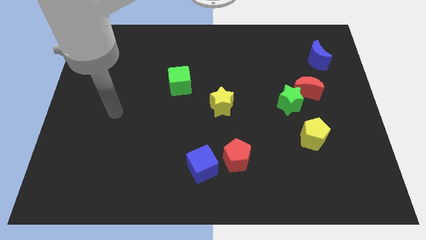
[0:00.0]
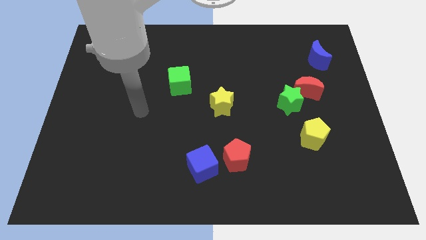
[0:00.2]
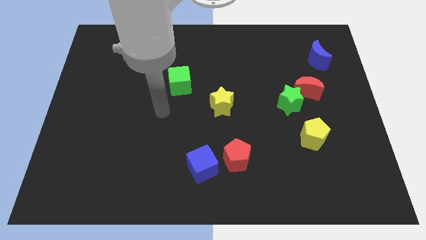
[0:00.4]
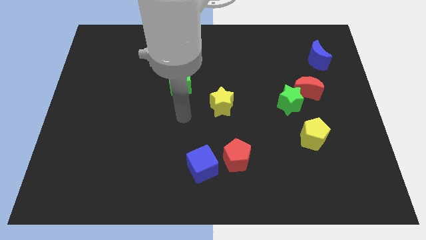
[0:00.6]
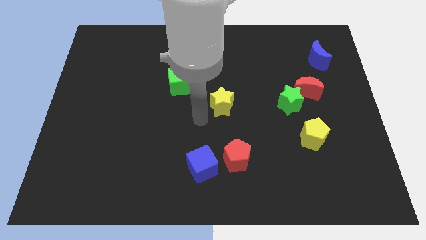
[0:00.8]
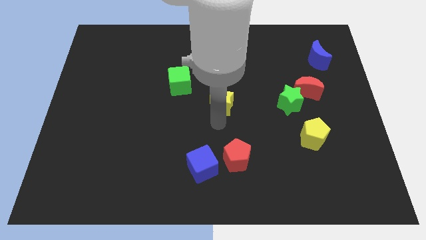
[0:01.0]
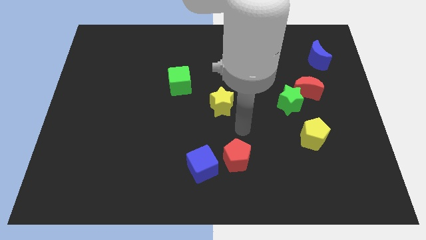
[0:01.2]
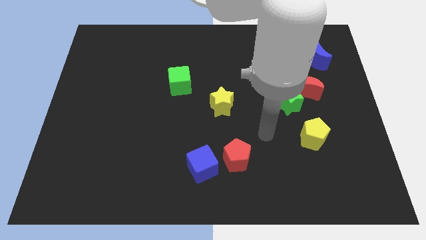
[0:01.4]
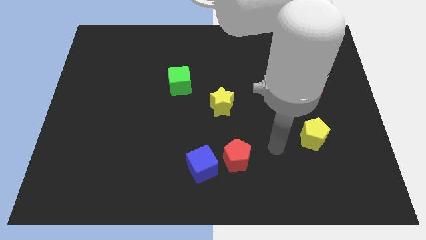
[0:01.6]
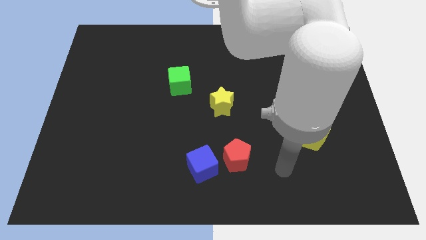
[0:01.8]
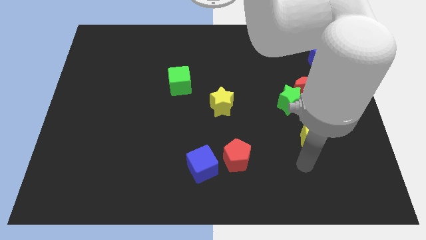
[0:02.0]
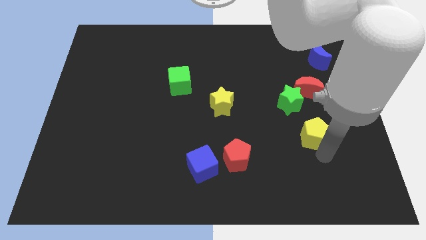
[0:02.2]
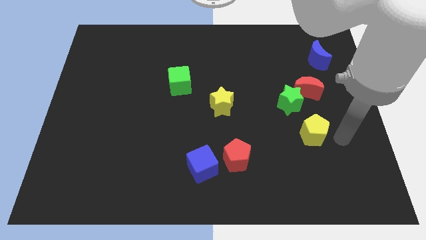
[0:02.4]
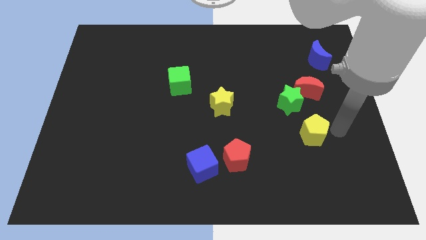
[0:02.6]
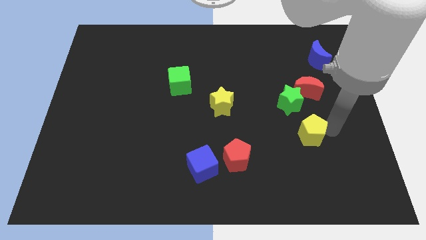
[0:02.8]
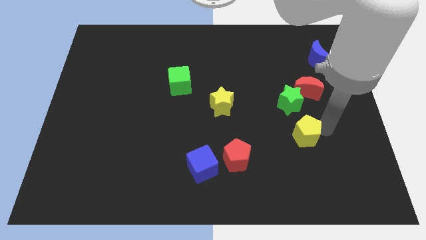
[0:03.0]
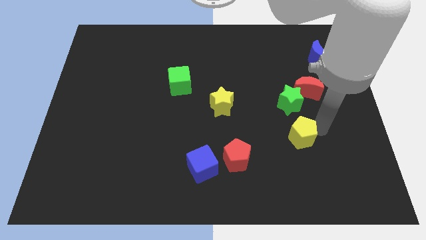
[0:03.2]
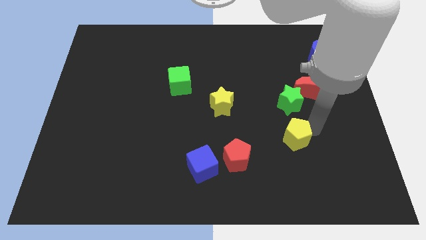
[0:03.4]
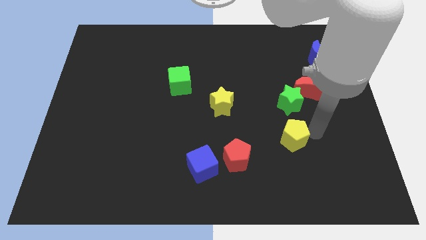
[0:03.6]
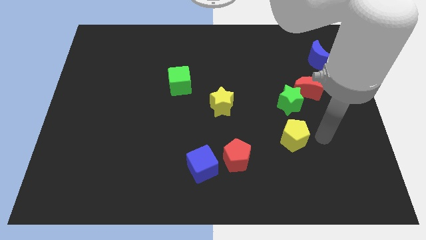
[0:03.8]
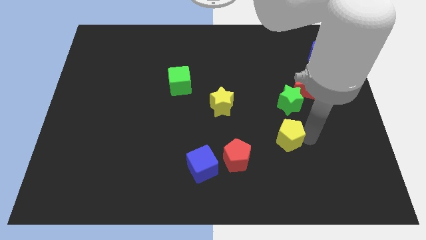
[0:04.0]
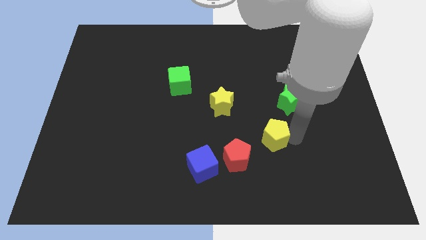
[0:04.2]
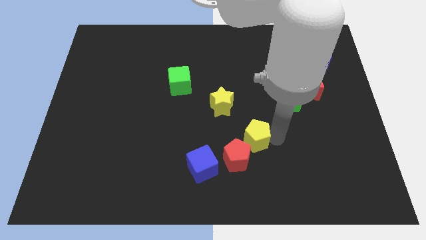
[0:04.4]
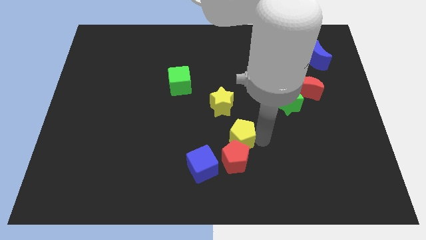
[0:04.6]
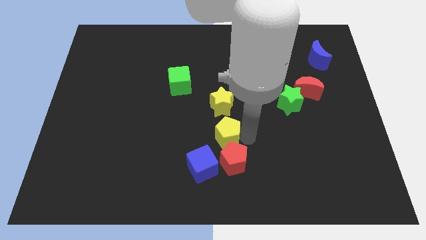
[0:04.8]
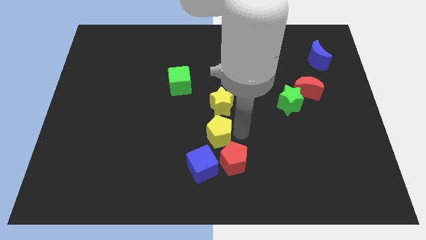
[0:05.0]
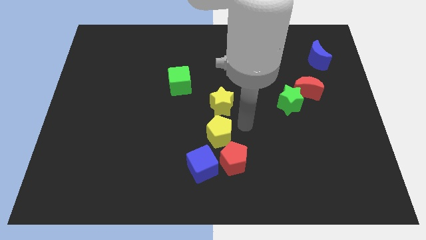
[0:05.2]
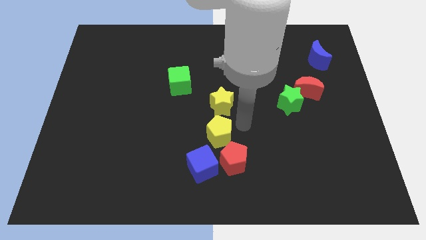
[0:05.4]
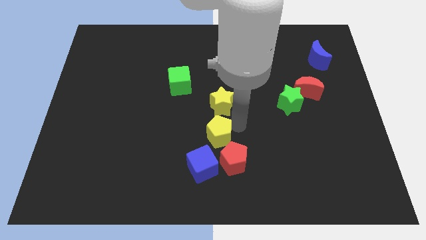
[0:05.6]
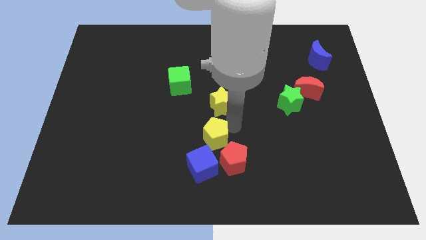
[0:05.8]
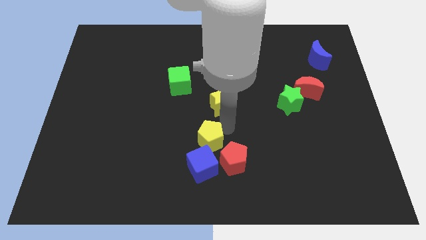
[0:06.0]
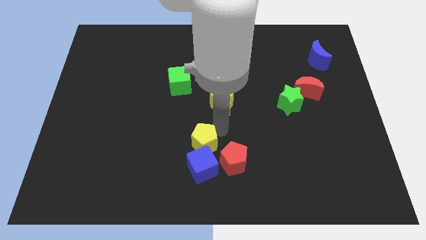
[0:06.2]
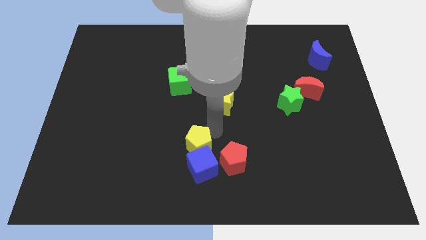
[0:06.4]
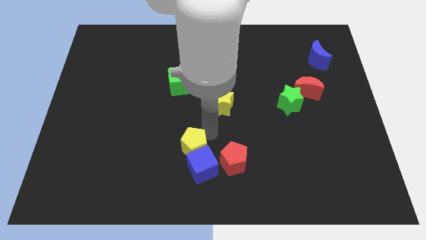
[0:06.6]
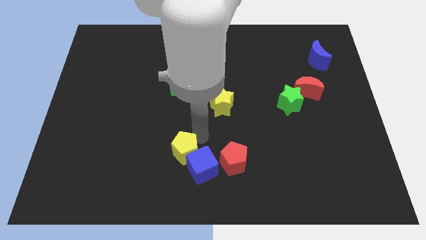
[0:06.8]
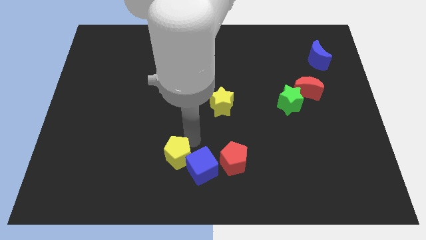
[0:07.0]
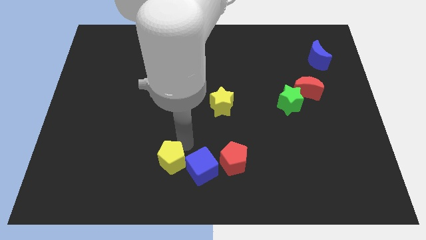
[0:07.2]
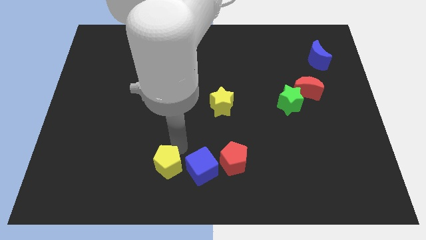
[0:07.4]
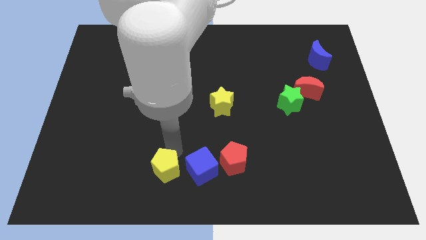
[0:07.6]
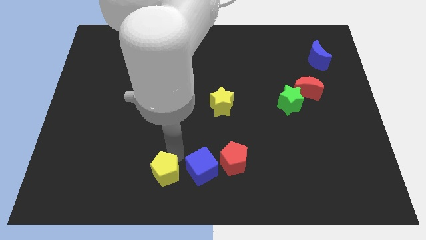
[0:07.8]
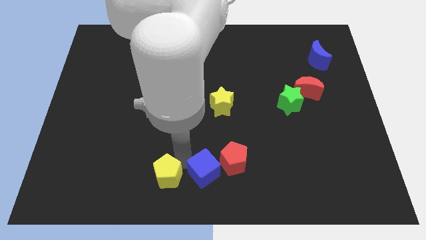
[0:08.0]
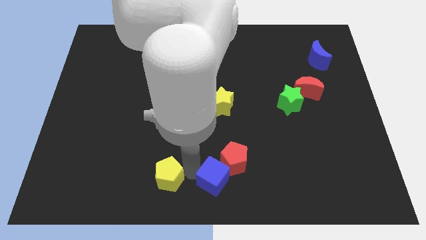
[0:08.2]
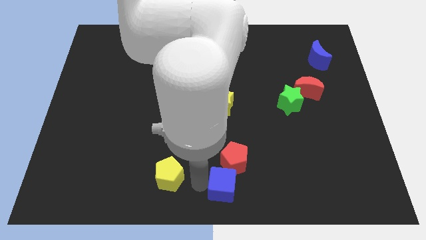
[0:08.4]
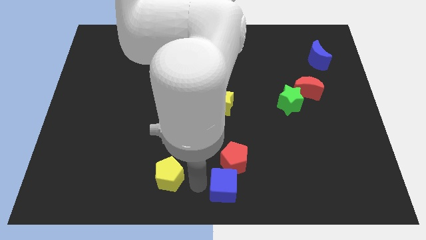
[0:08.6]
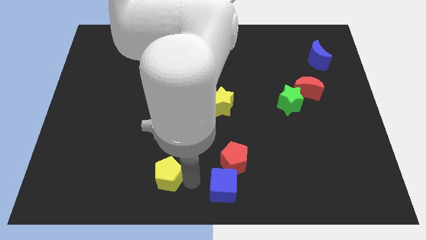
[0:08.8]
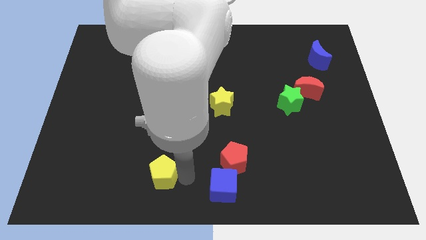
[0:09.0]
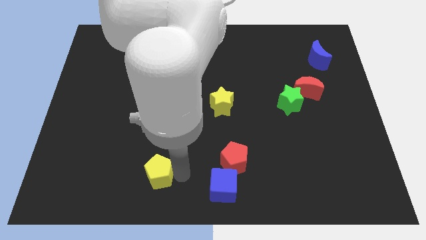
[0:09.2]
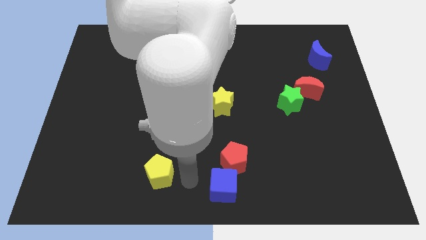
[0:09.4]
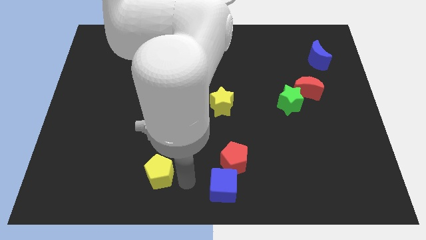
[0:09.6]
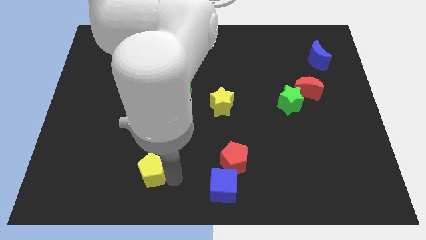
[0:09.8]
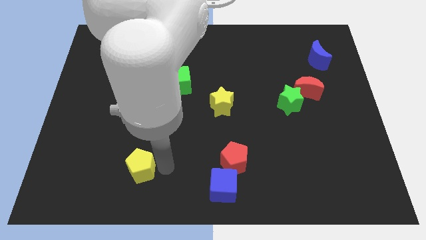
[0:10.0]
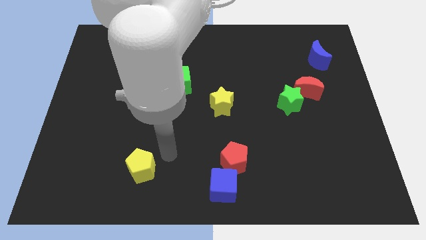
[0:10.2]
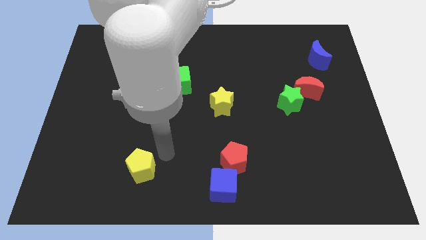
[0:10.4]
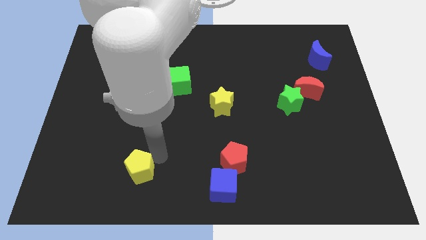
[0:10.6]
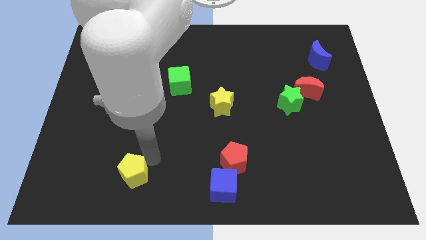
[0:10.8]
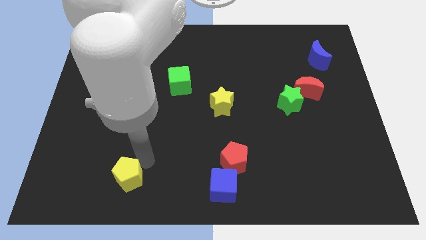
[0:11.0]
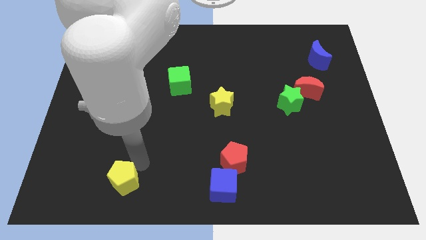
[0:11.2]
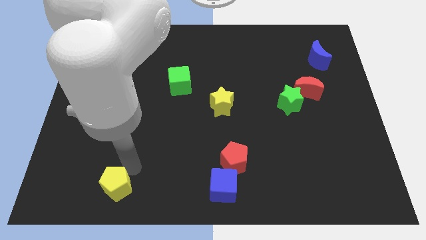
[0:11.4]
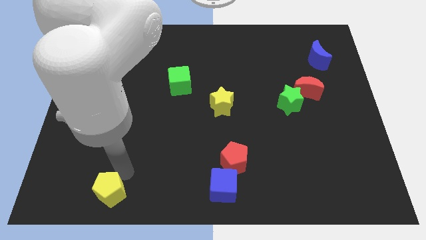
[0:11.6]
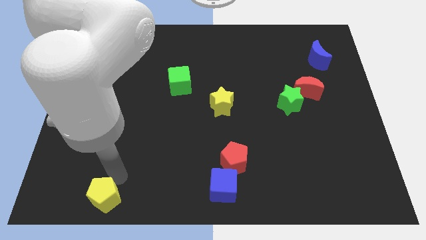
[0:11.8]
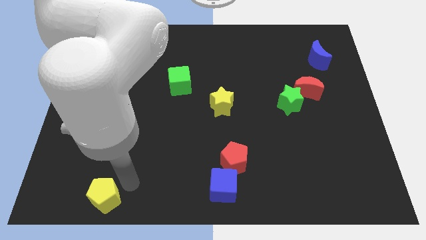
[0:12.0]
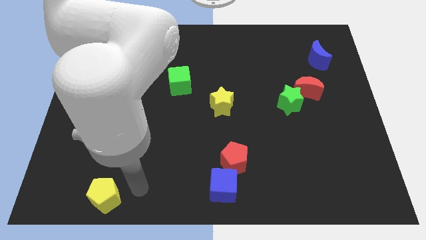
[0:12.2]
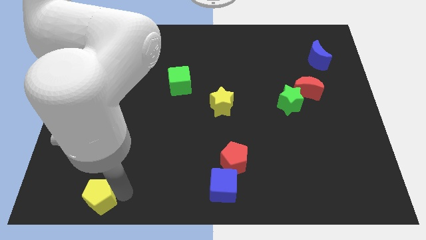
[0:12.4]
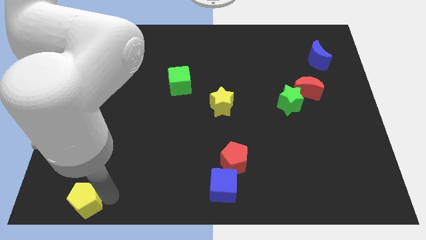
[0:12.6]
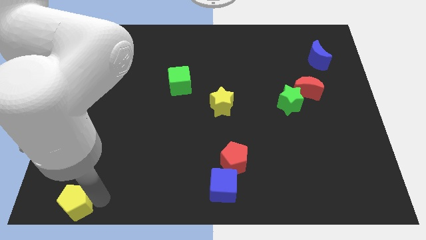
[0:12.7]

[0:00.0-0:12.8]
slide the yellow pentagon to the bottom left of the board
